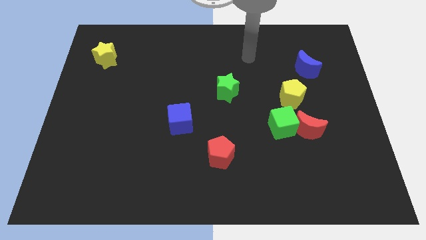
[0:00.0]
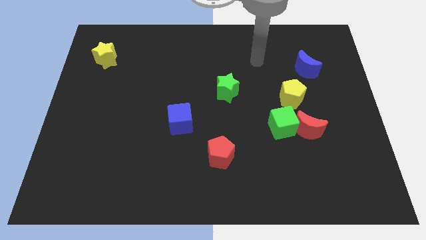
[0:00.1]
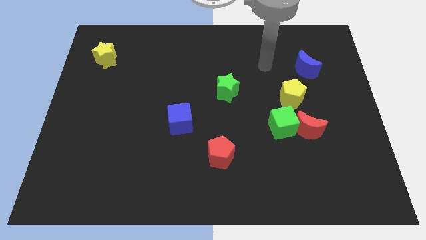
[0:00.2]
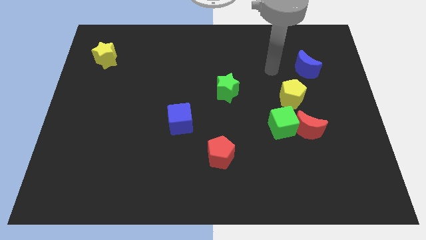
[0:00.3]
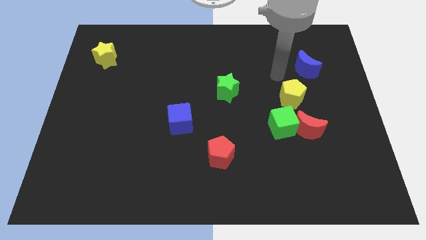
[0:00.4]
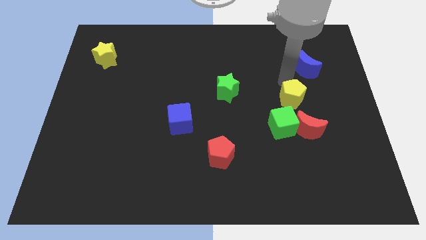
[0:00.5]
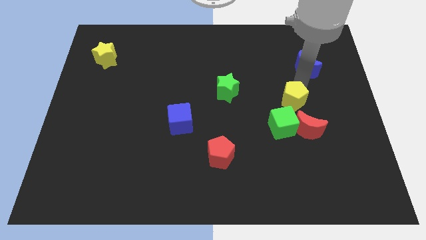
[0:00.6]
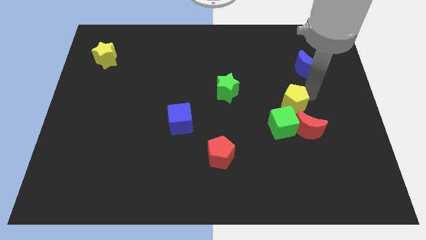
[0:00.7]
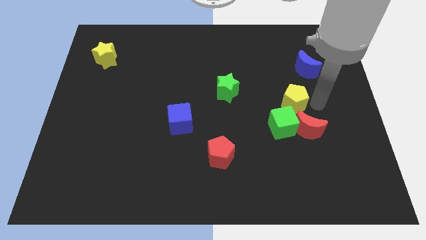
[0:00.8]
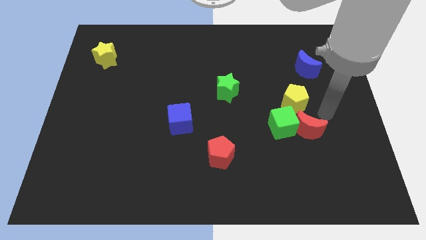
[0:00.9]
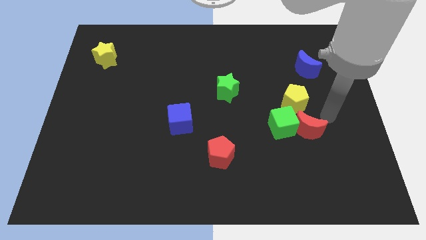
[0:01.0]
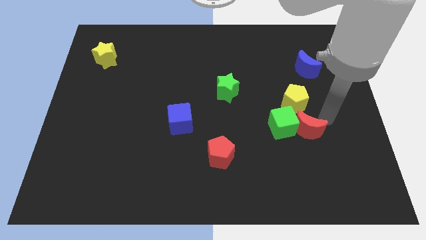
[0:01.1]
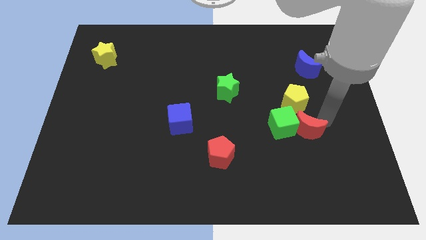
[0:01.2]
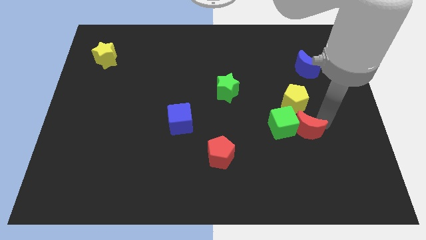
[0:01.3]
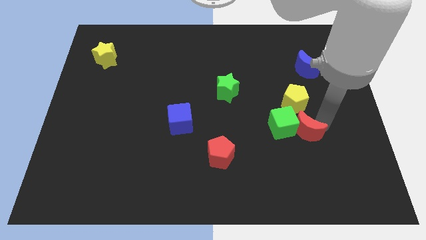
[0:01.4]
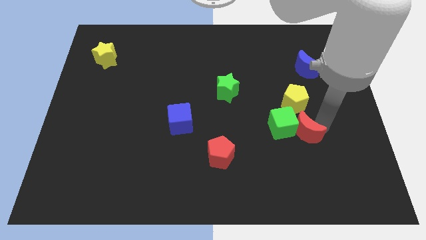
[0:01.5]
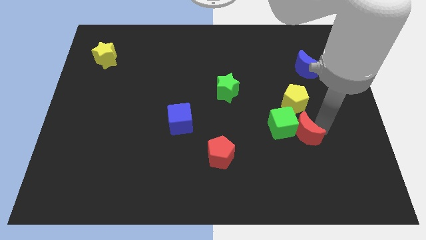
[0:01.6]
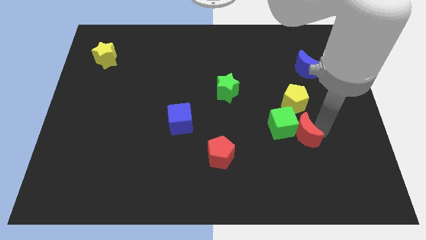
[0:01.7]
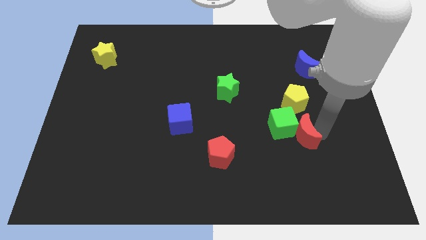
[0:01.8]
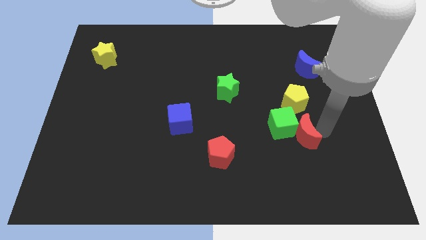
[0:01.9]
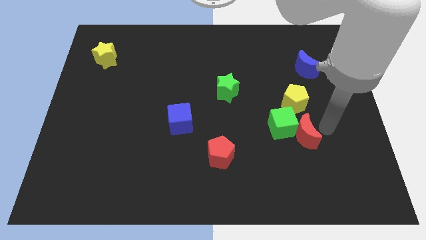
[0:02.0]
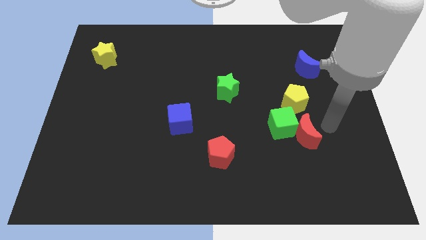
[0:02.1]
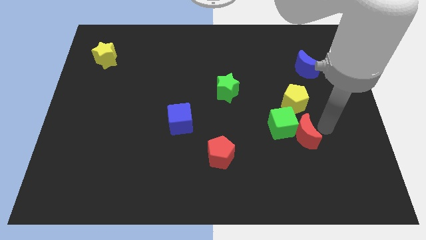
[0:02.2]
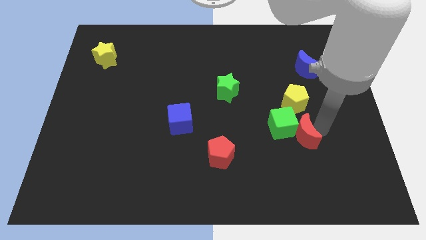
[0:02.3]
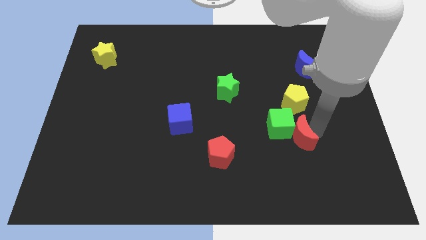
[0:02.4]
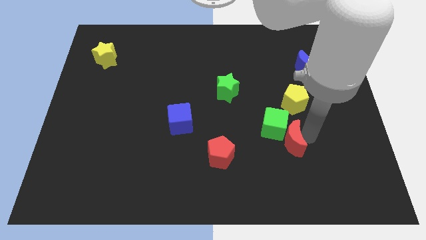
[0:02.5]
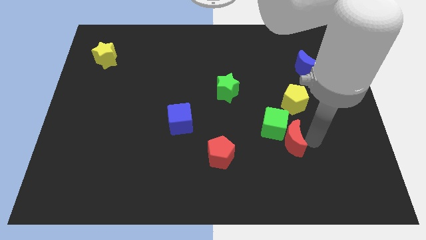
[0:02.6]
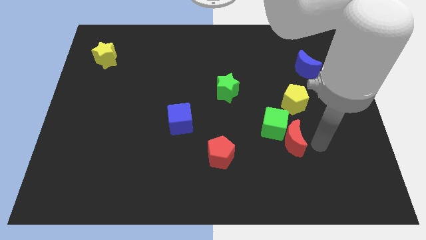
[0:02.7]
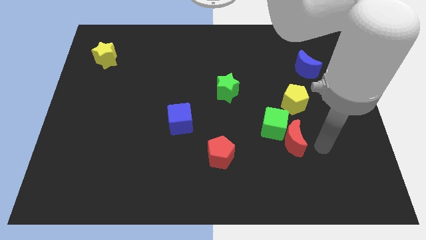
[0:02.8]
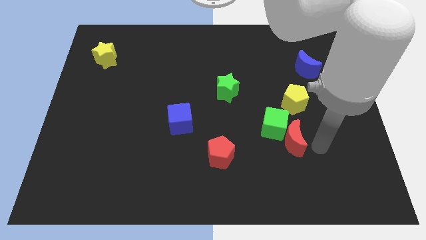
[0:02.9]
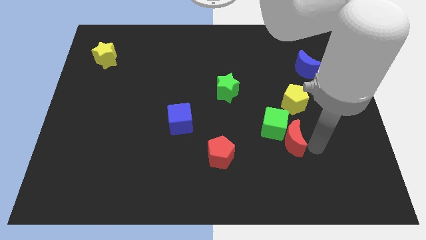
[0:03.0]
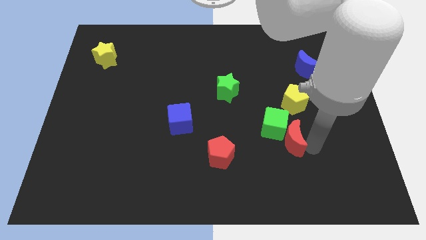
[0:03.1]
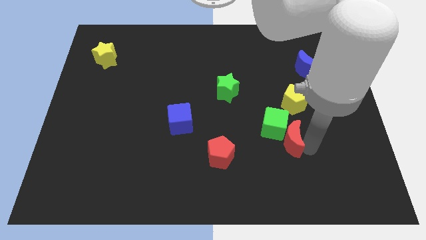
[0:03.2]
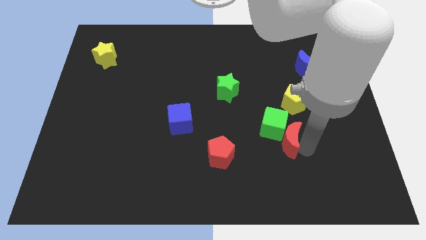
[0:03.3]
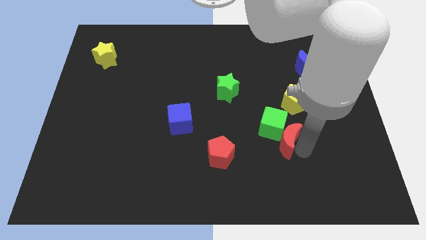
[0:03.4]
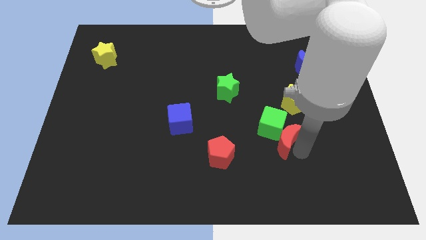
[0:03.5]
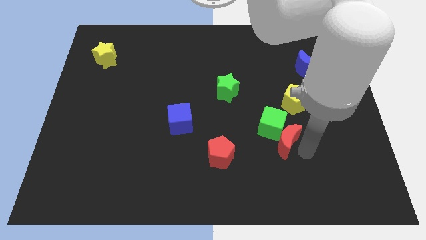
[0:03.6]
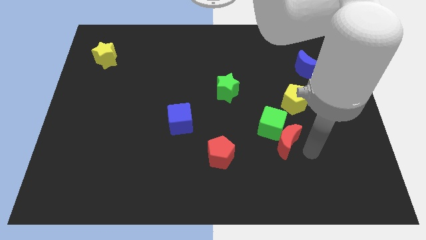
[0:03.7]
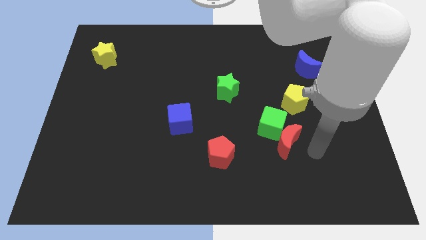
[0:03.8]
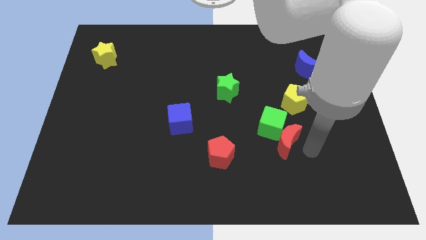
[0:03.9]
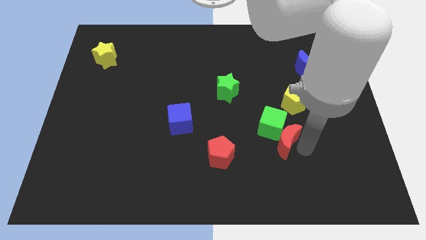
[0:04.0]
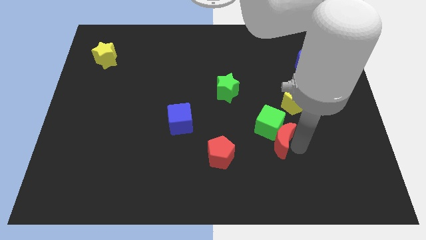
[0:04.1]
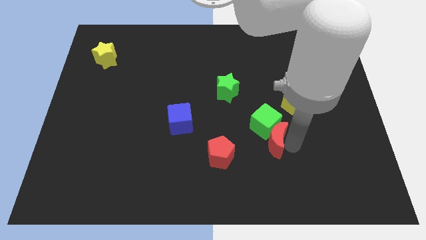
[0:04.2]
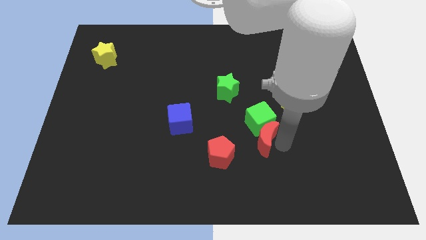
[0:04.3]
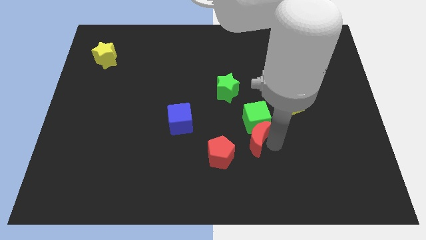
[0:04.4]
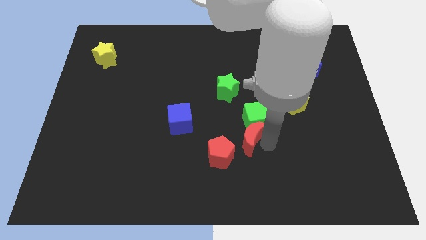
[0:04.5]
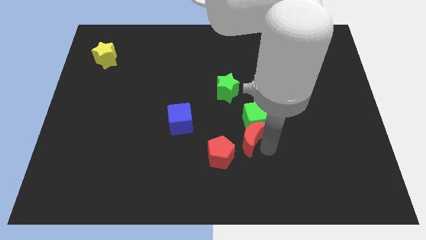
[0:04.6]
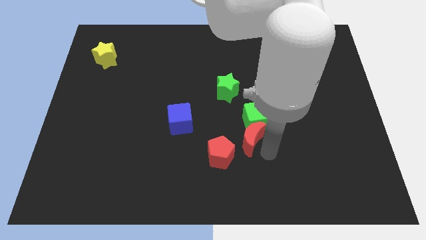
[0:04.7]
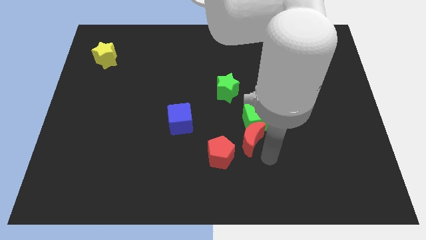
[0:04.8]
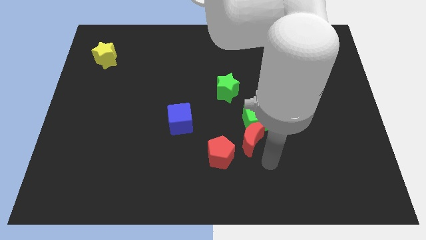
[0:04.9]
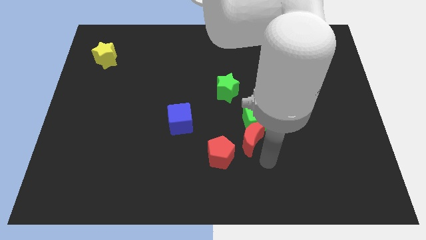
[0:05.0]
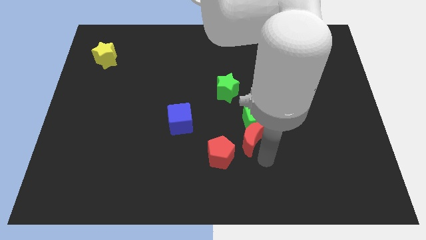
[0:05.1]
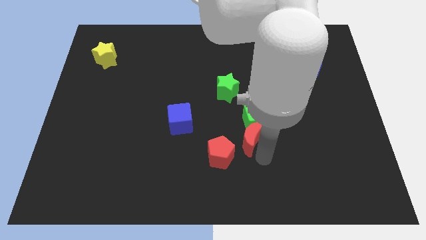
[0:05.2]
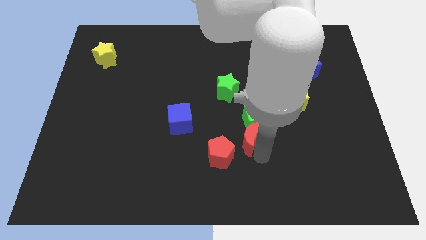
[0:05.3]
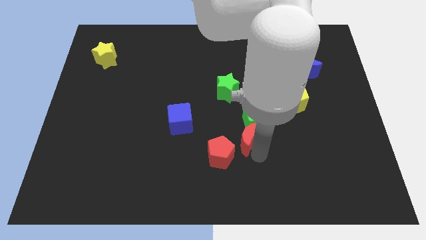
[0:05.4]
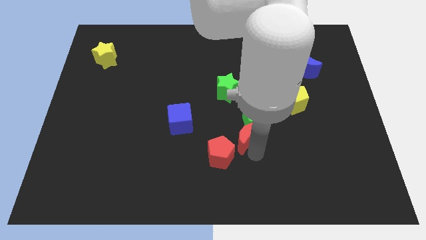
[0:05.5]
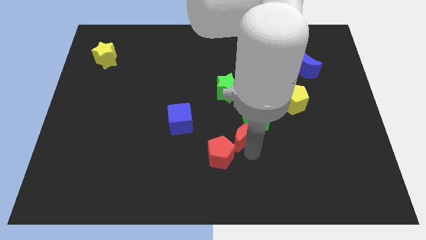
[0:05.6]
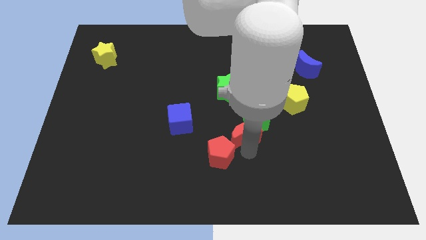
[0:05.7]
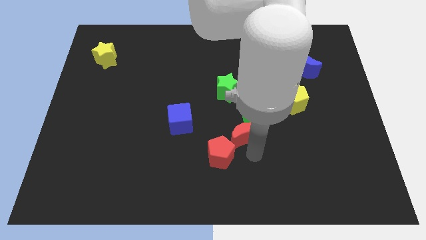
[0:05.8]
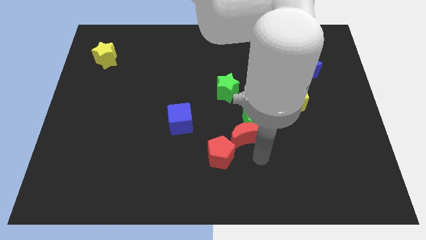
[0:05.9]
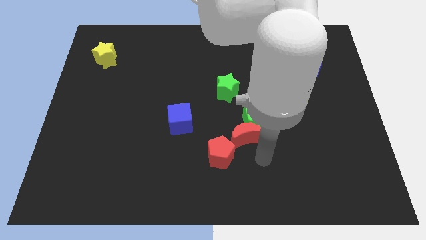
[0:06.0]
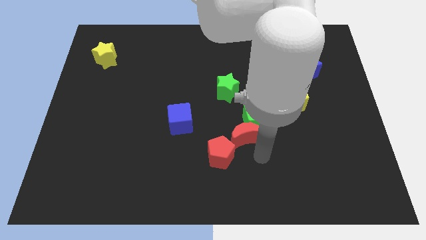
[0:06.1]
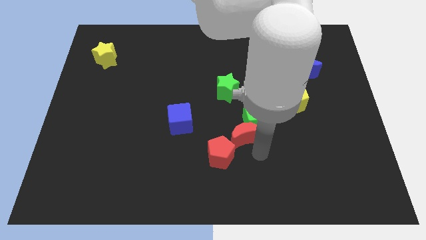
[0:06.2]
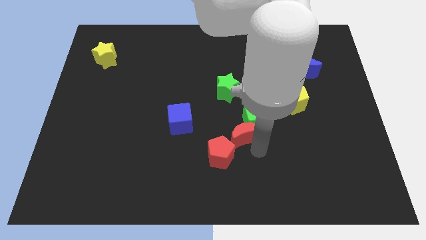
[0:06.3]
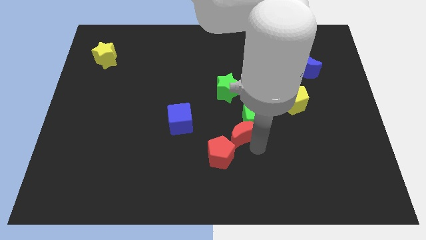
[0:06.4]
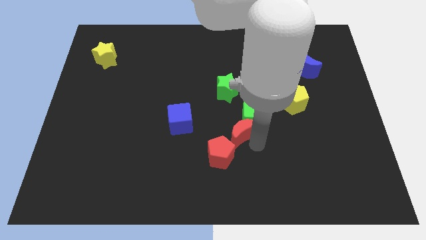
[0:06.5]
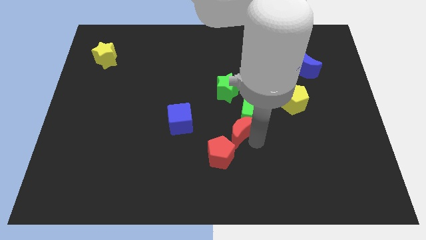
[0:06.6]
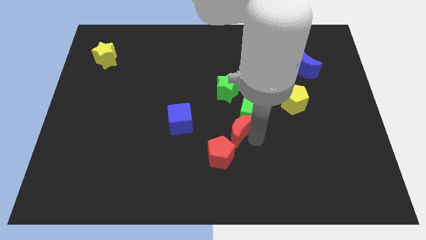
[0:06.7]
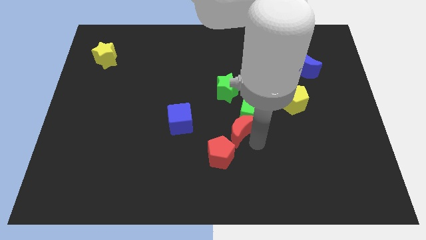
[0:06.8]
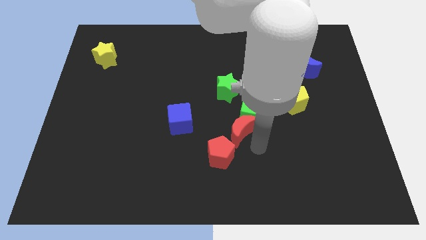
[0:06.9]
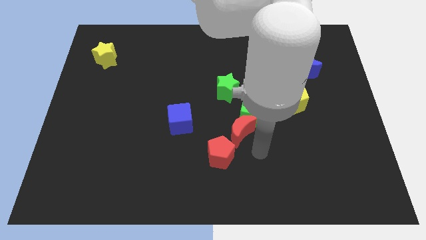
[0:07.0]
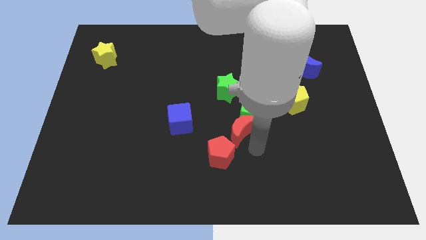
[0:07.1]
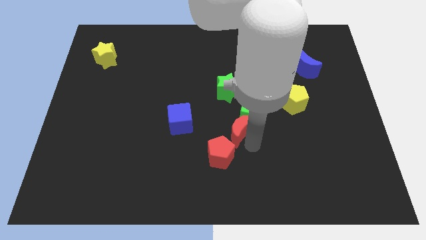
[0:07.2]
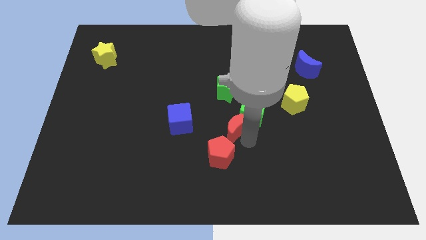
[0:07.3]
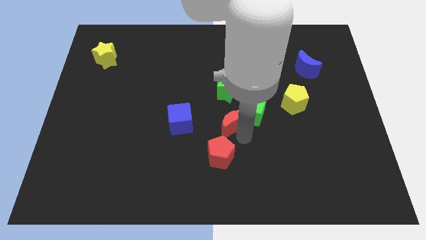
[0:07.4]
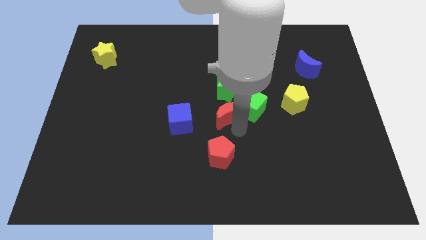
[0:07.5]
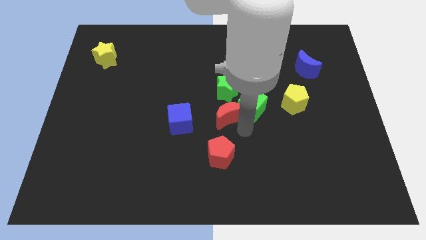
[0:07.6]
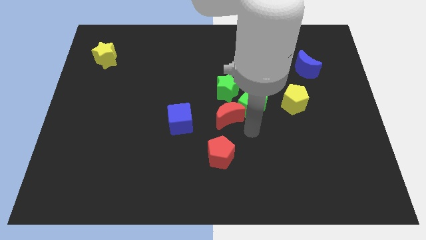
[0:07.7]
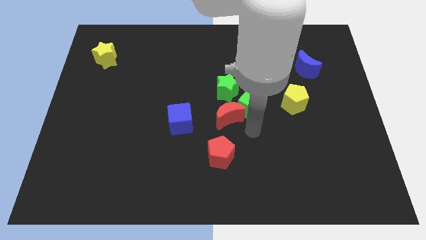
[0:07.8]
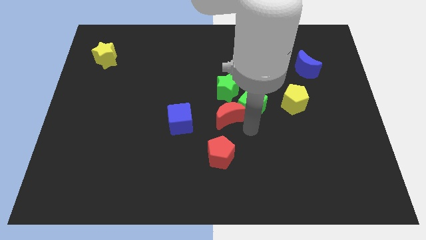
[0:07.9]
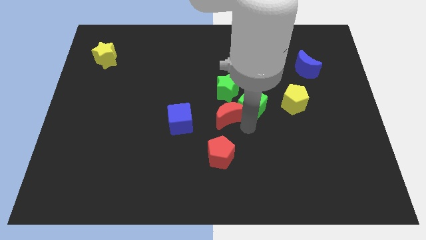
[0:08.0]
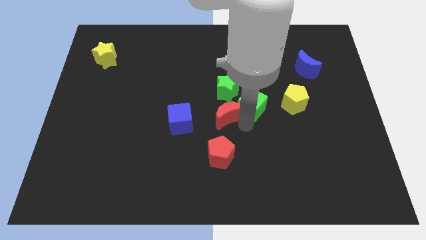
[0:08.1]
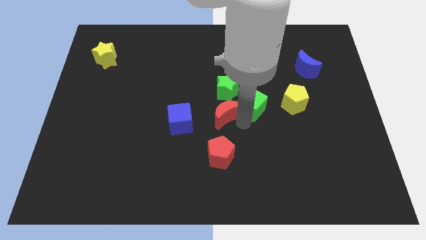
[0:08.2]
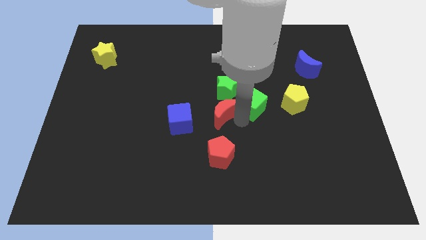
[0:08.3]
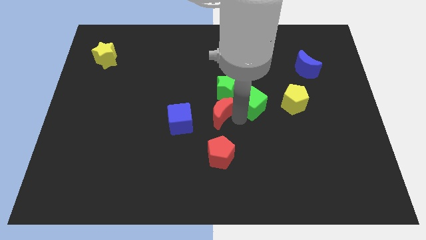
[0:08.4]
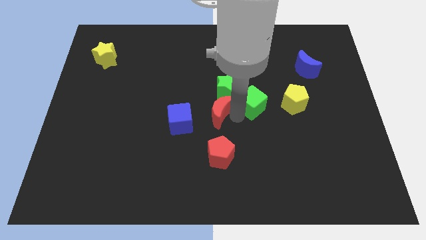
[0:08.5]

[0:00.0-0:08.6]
put the red moon to the top right of the blue cube
